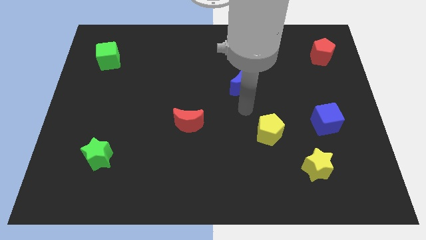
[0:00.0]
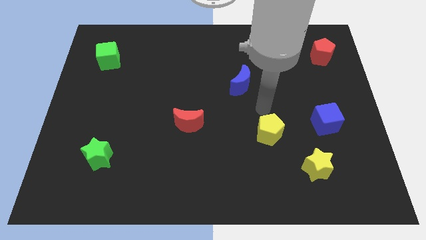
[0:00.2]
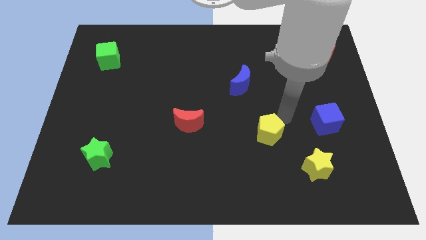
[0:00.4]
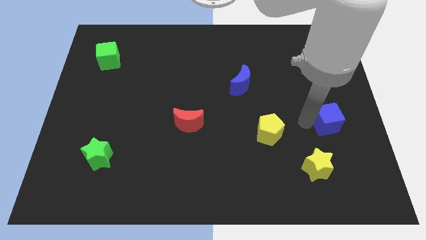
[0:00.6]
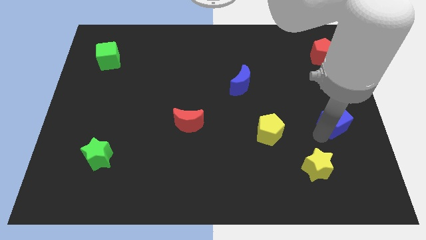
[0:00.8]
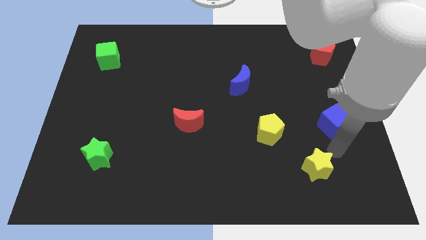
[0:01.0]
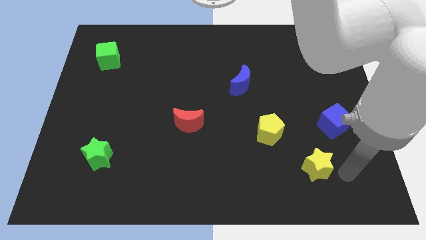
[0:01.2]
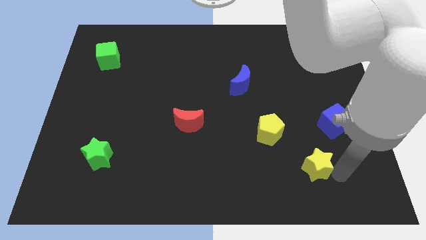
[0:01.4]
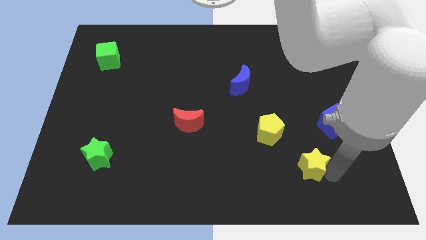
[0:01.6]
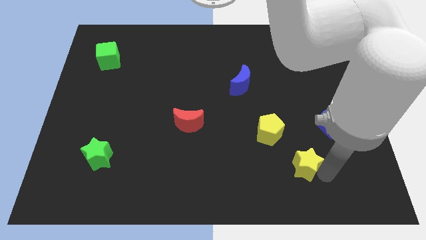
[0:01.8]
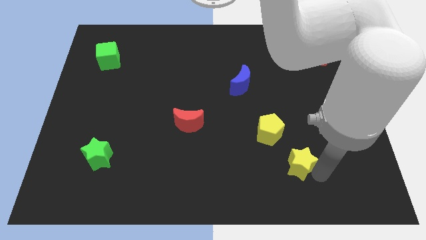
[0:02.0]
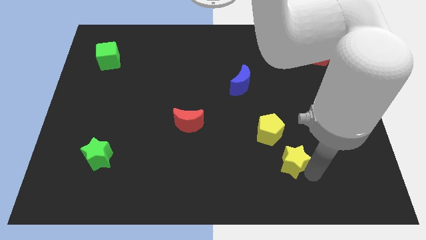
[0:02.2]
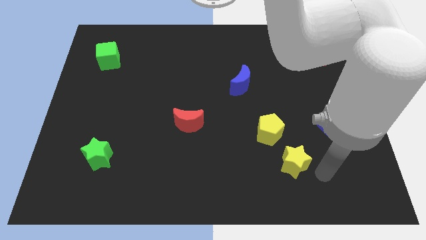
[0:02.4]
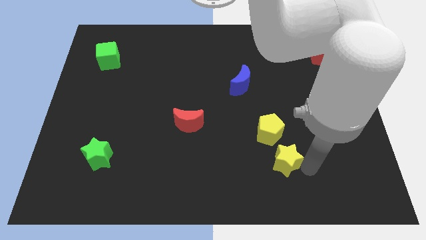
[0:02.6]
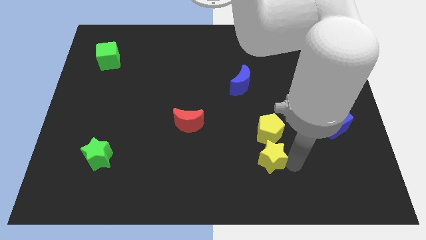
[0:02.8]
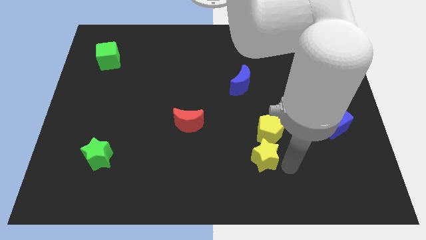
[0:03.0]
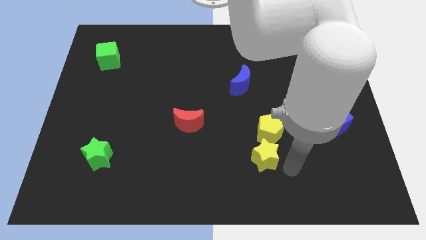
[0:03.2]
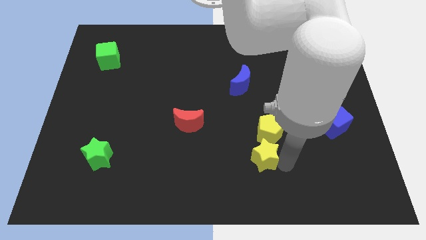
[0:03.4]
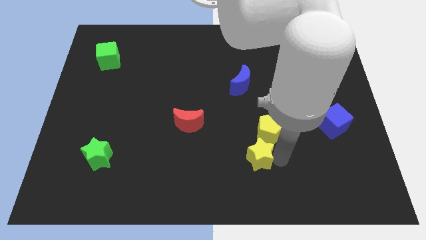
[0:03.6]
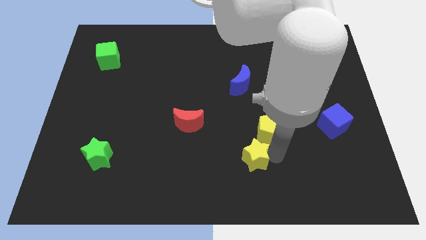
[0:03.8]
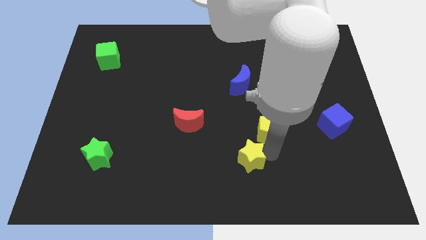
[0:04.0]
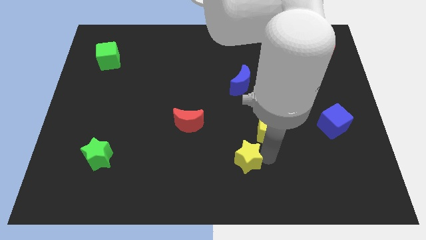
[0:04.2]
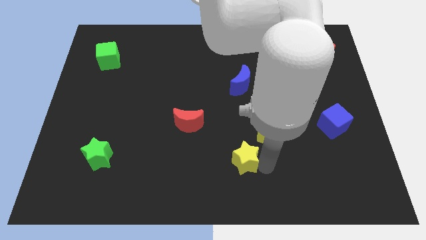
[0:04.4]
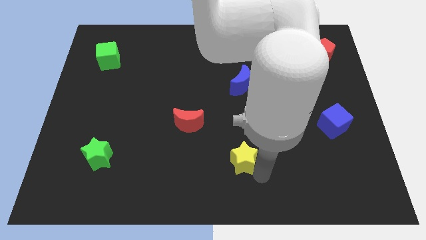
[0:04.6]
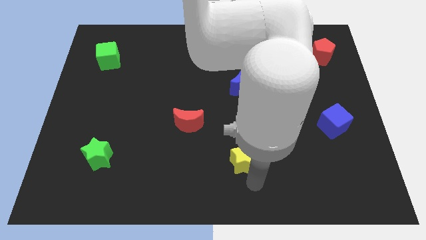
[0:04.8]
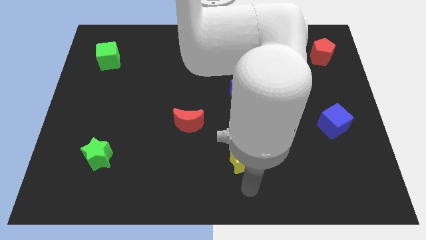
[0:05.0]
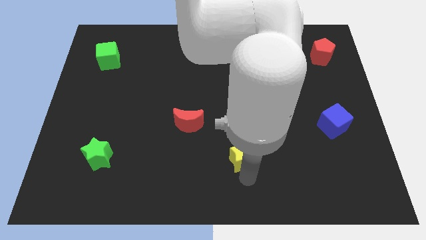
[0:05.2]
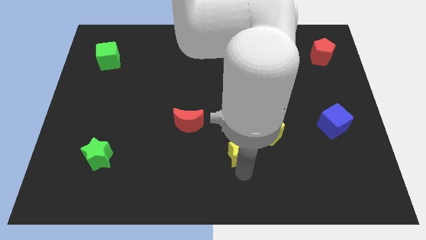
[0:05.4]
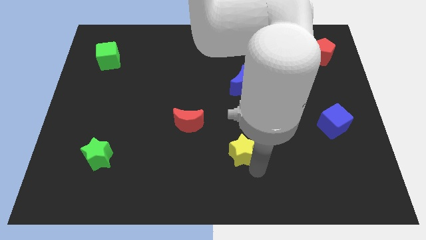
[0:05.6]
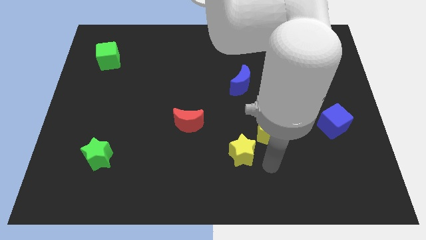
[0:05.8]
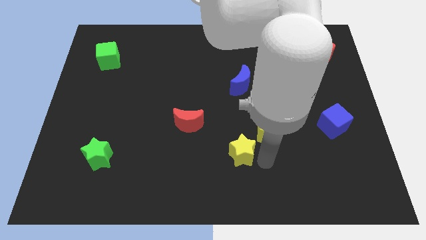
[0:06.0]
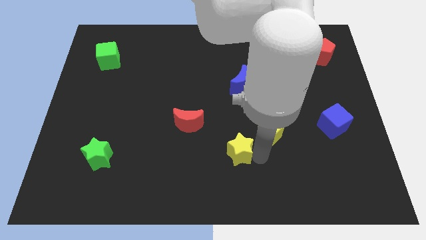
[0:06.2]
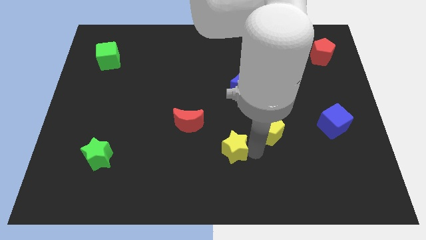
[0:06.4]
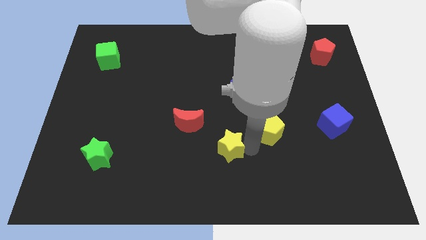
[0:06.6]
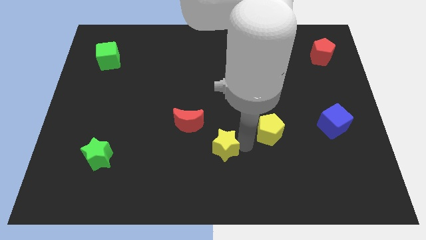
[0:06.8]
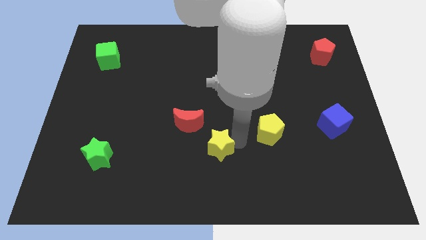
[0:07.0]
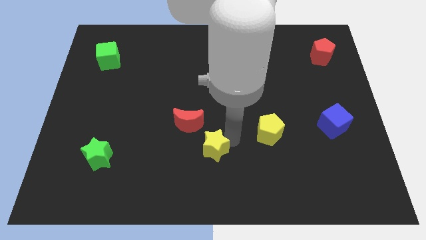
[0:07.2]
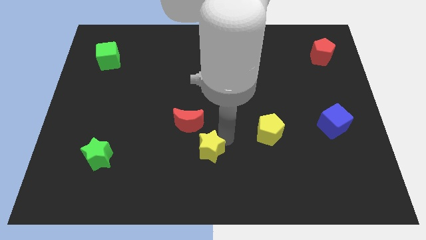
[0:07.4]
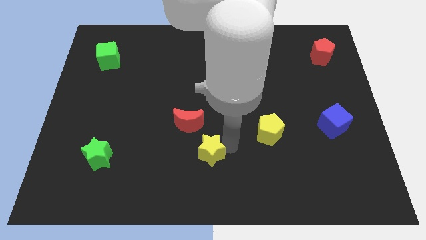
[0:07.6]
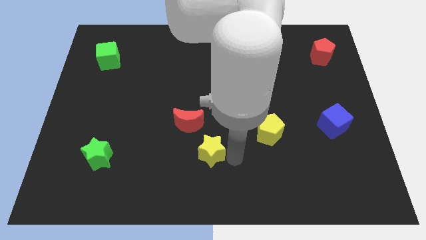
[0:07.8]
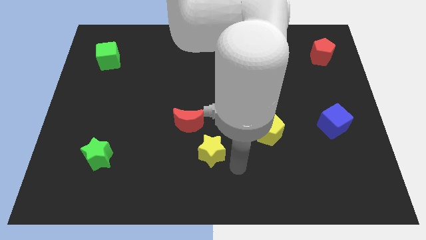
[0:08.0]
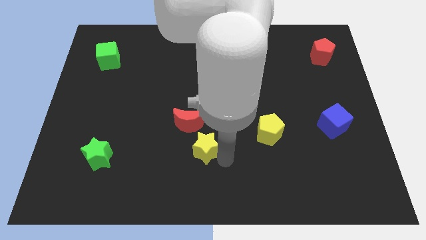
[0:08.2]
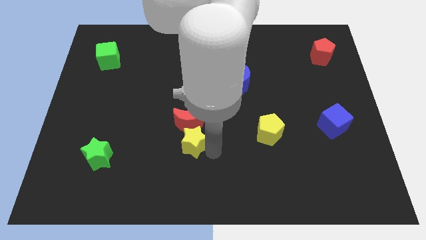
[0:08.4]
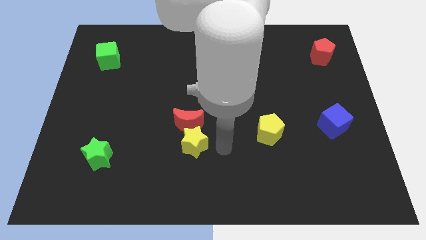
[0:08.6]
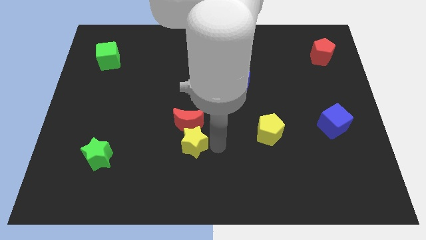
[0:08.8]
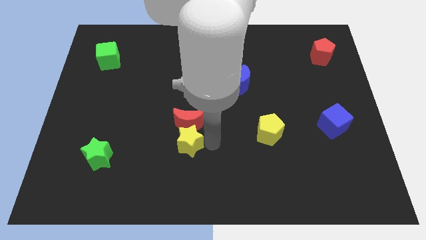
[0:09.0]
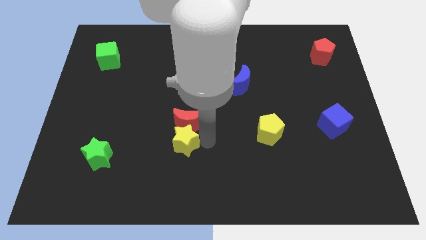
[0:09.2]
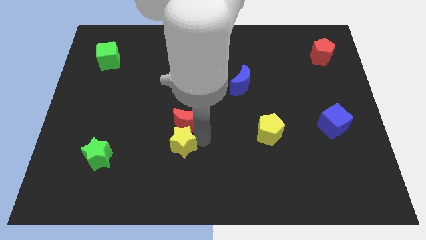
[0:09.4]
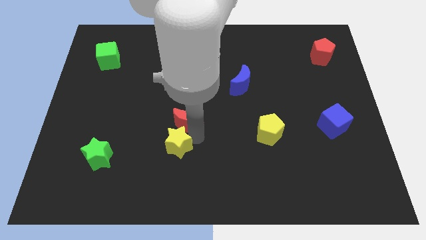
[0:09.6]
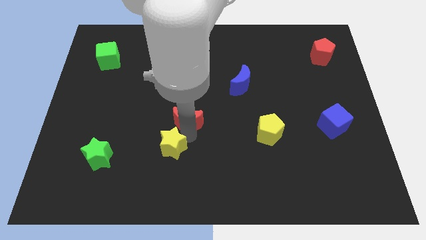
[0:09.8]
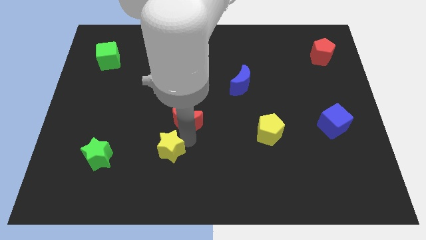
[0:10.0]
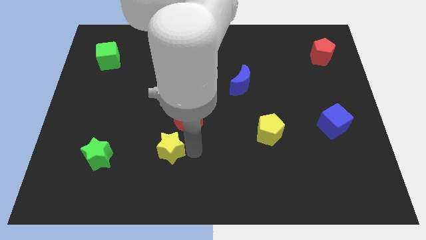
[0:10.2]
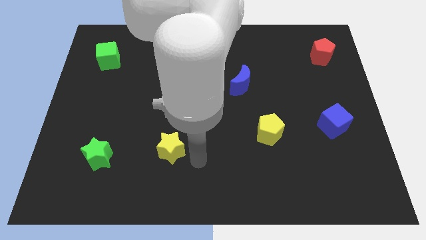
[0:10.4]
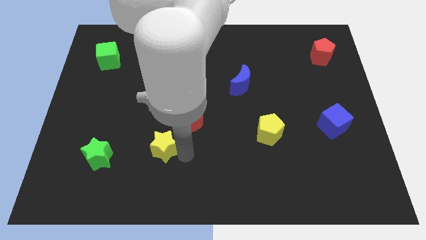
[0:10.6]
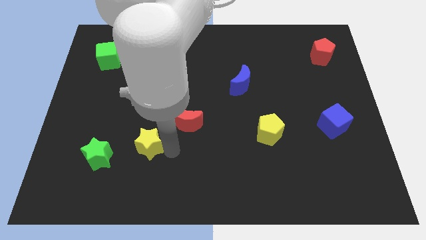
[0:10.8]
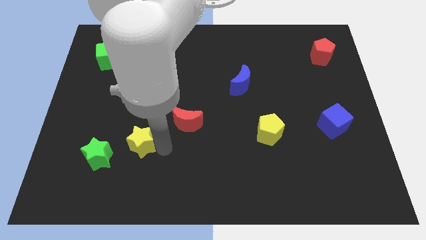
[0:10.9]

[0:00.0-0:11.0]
move the yellow star to the top right side of the green star

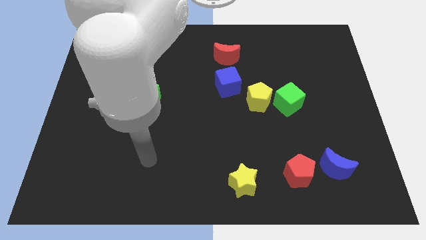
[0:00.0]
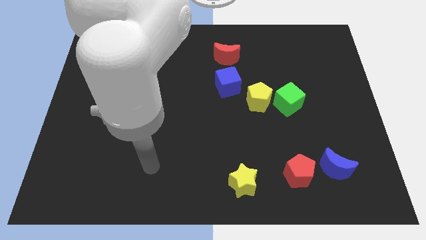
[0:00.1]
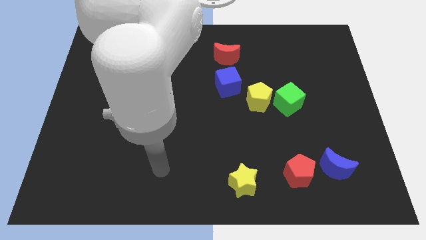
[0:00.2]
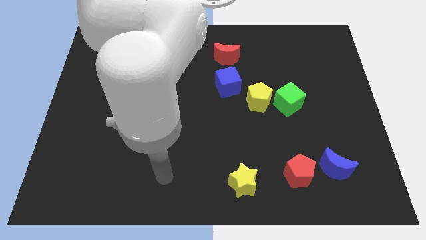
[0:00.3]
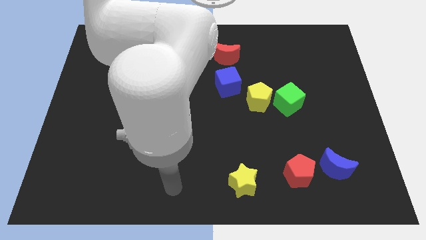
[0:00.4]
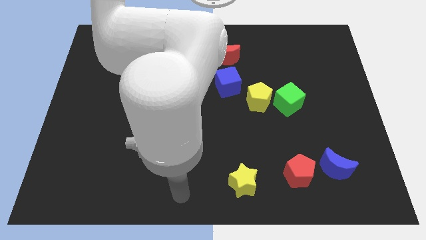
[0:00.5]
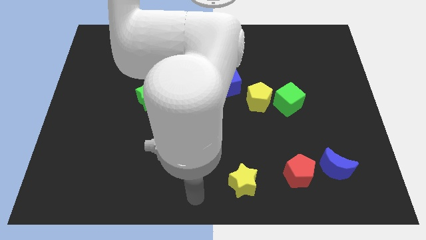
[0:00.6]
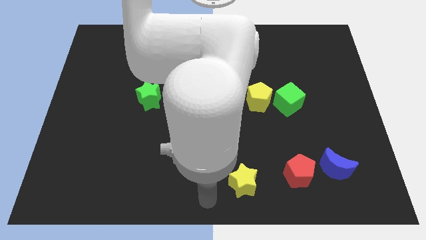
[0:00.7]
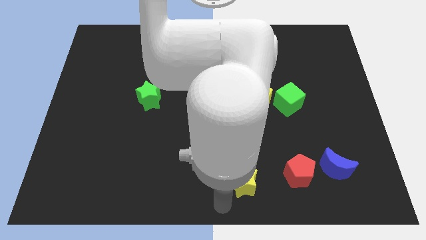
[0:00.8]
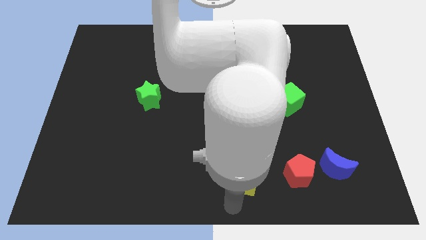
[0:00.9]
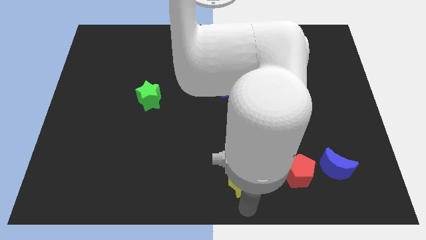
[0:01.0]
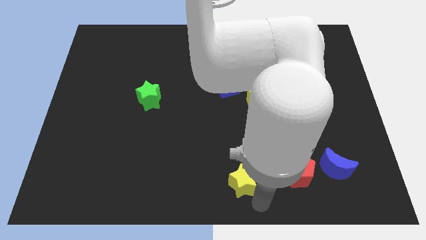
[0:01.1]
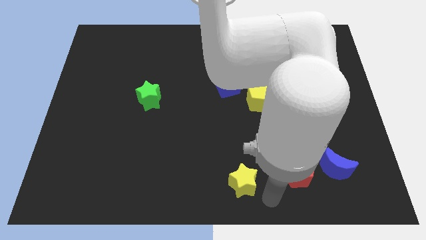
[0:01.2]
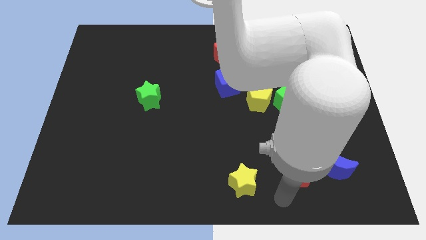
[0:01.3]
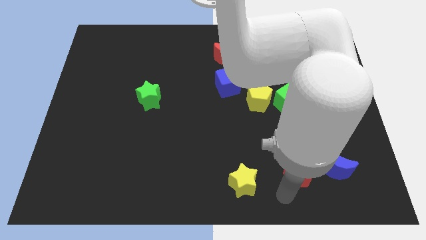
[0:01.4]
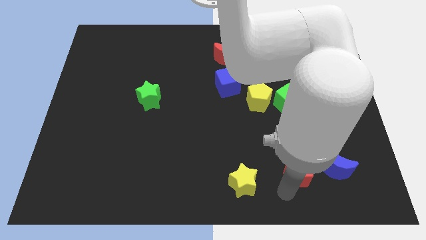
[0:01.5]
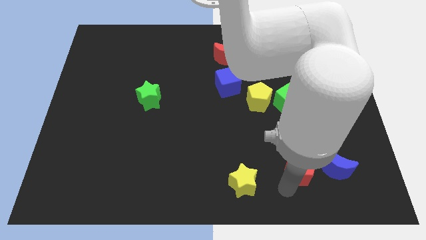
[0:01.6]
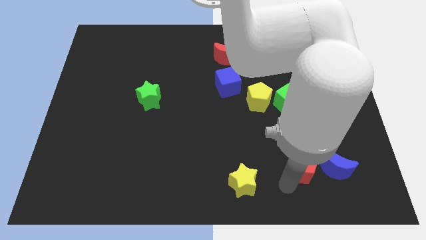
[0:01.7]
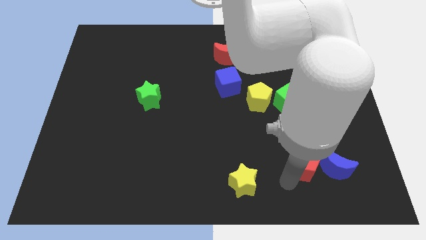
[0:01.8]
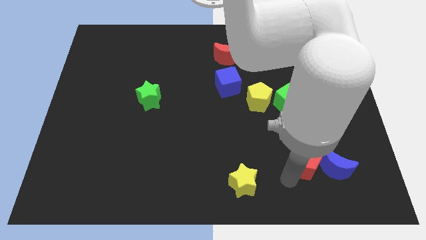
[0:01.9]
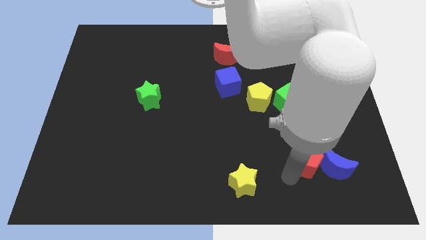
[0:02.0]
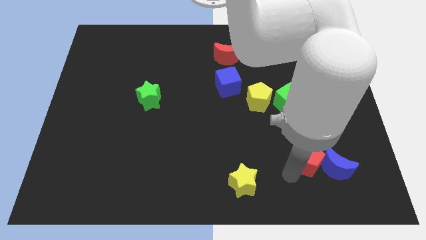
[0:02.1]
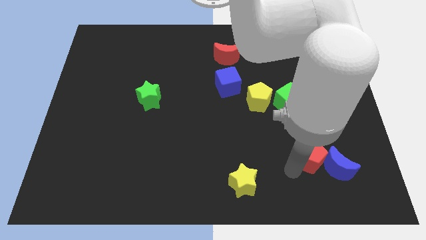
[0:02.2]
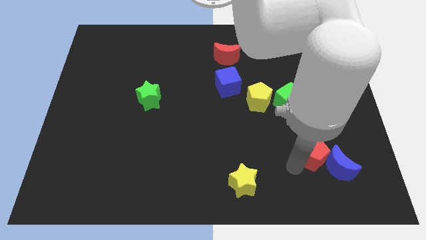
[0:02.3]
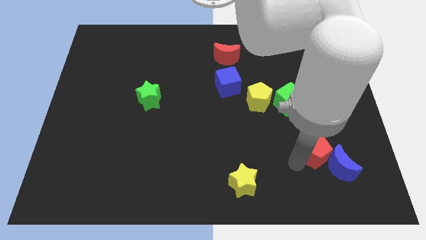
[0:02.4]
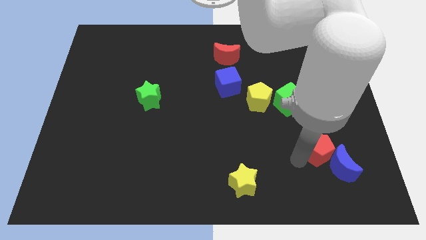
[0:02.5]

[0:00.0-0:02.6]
push the red pentagon to the top of the blue moon
